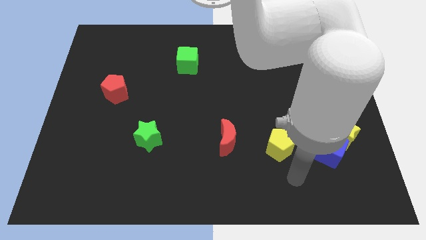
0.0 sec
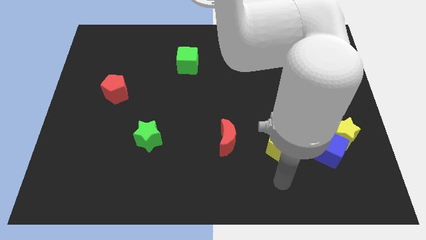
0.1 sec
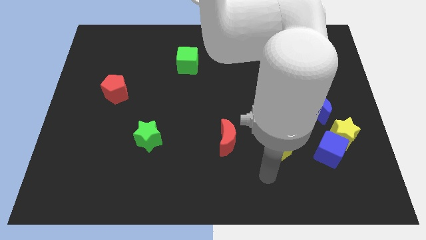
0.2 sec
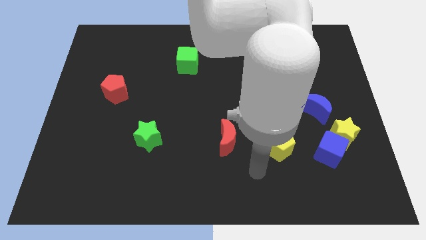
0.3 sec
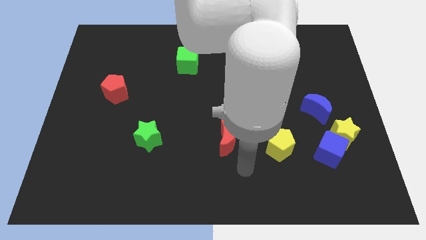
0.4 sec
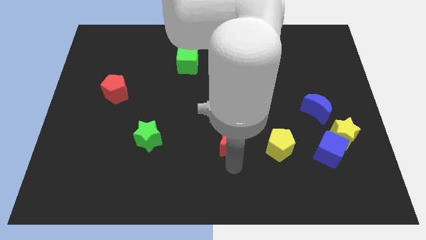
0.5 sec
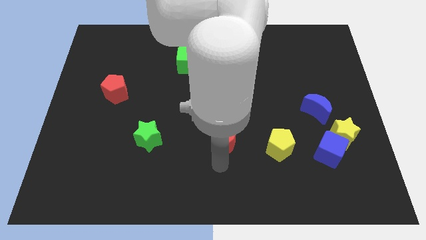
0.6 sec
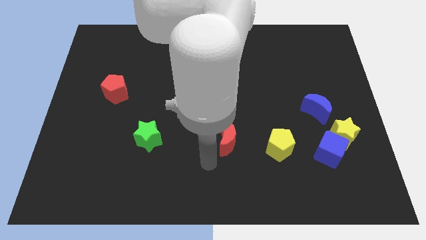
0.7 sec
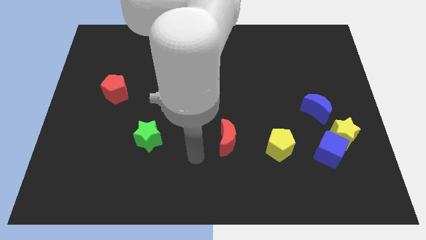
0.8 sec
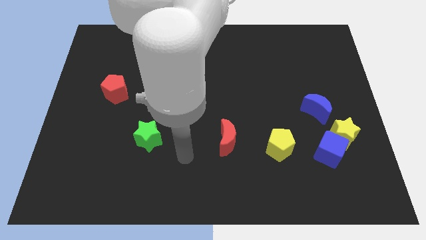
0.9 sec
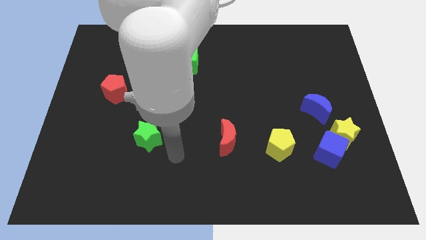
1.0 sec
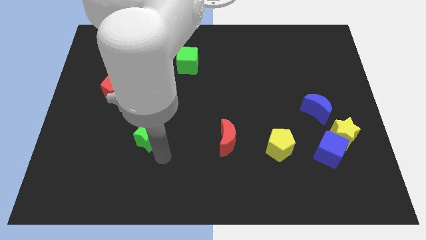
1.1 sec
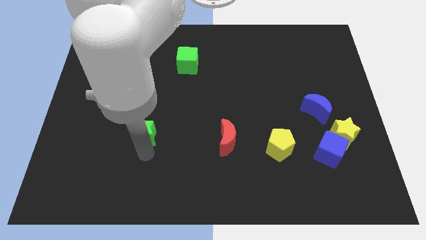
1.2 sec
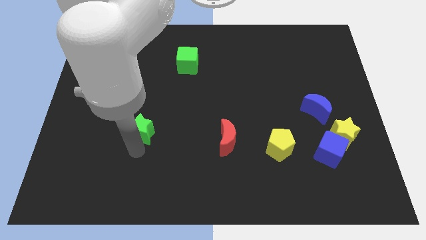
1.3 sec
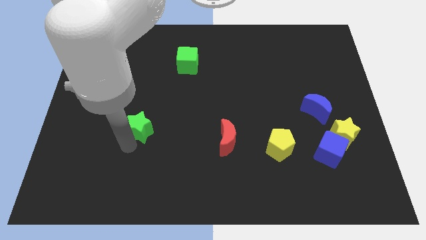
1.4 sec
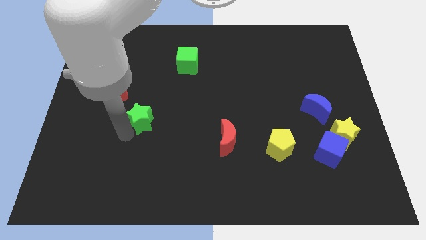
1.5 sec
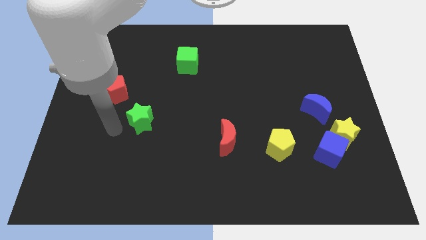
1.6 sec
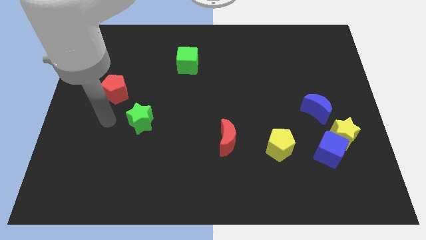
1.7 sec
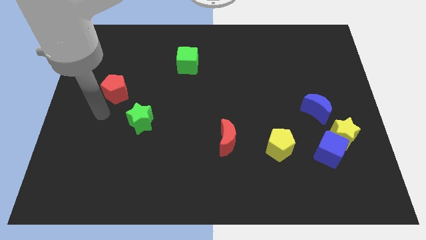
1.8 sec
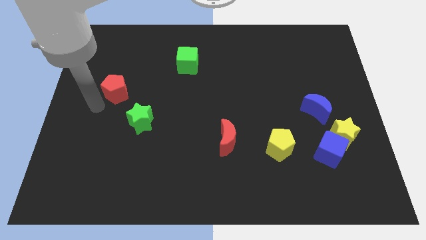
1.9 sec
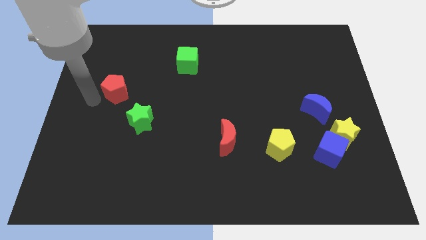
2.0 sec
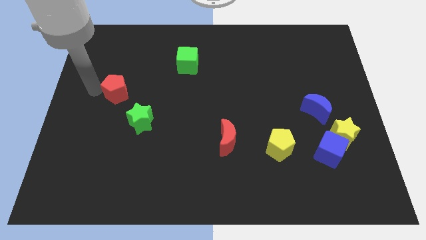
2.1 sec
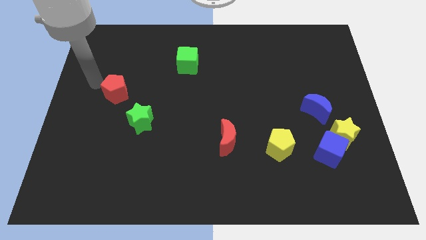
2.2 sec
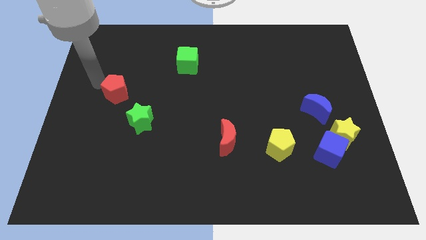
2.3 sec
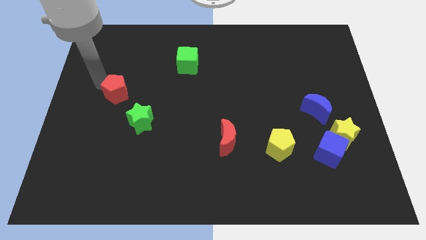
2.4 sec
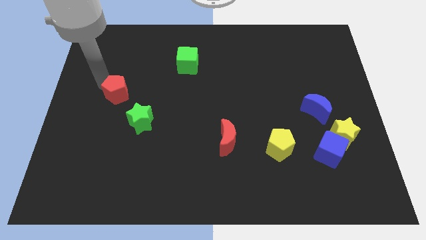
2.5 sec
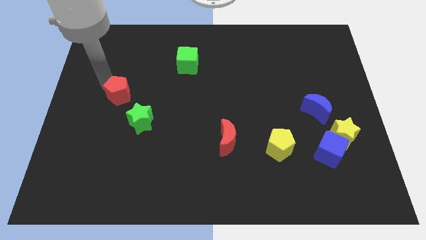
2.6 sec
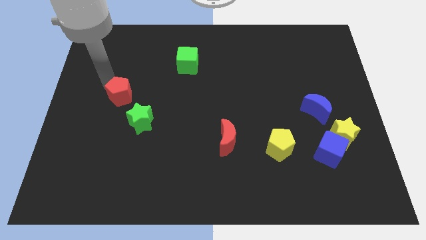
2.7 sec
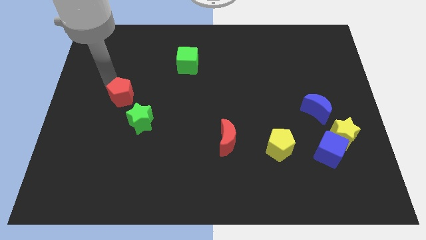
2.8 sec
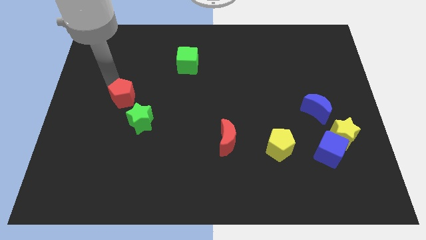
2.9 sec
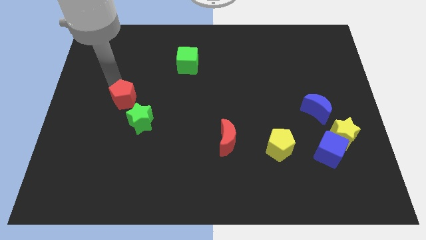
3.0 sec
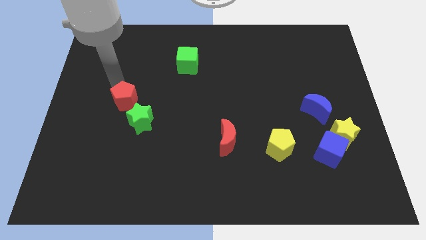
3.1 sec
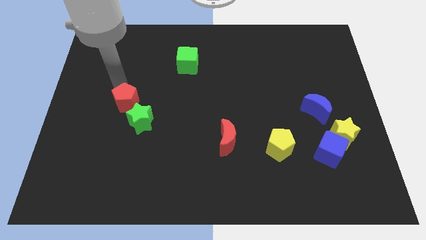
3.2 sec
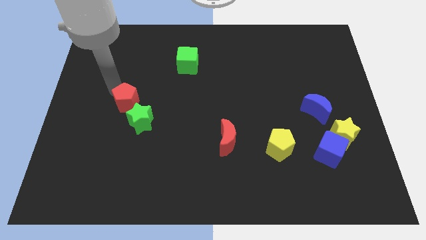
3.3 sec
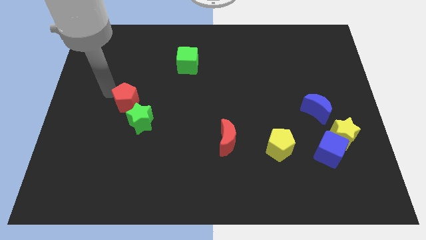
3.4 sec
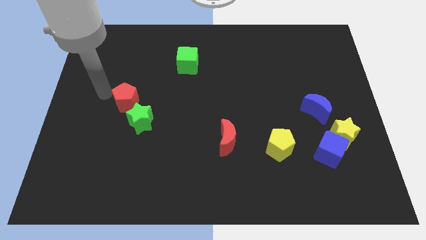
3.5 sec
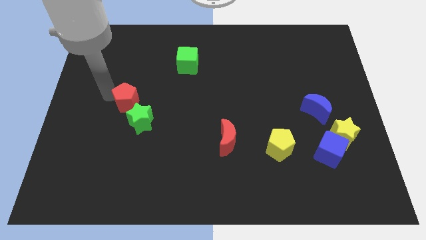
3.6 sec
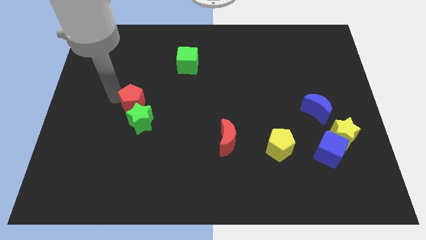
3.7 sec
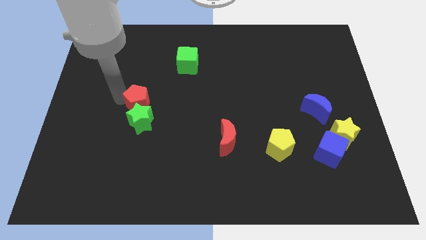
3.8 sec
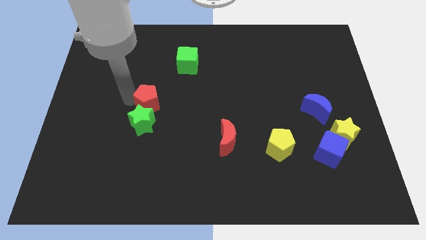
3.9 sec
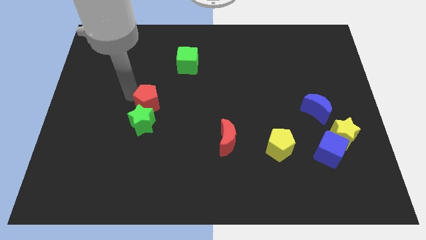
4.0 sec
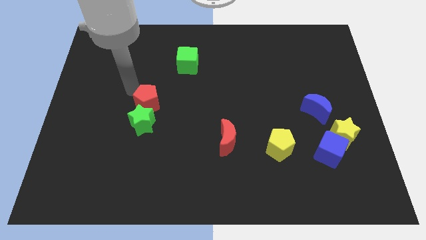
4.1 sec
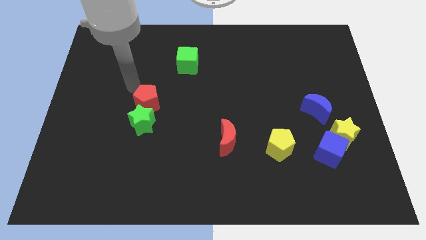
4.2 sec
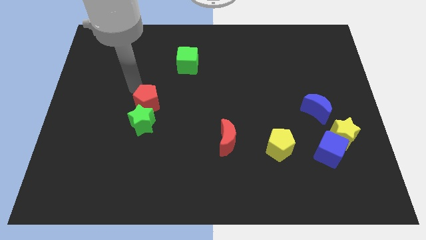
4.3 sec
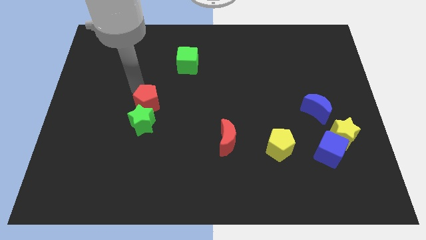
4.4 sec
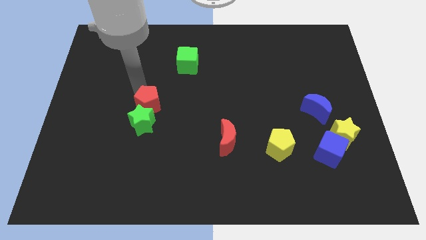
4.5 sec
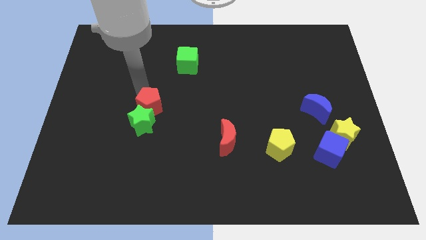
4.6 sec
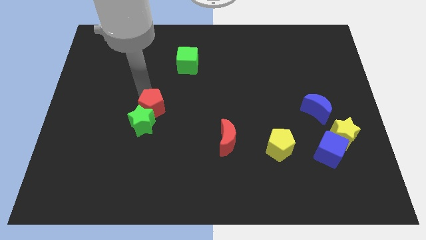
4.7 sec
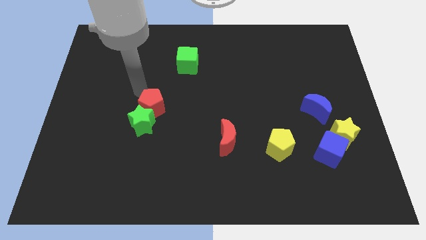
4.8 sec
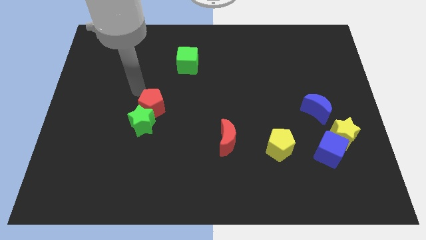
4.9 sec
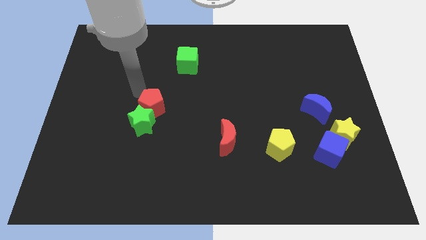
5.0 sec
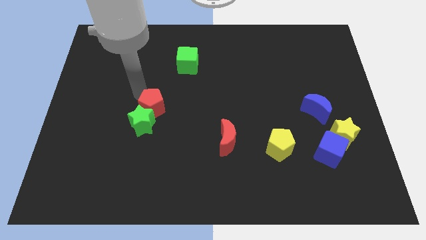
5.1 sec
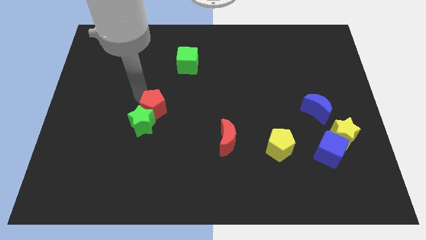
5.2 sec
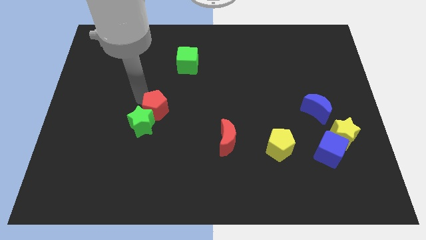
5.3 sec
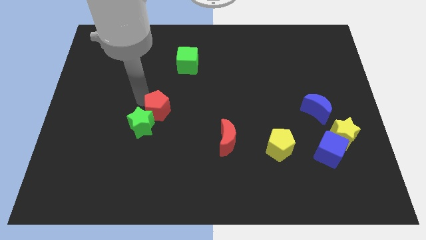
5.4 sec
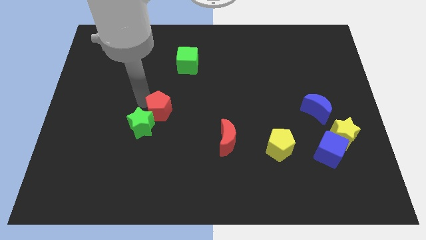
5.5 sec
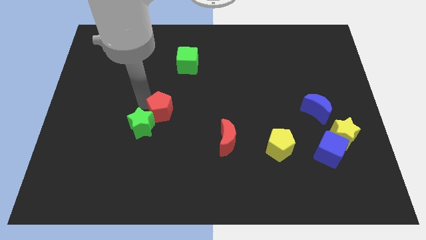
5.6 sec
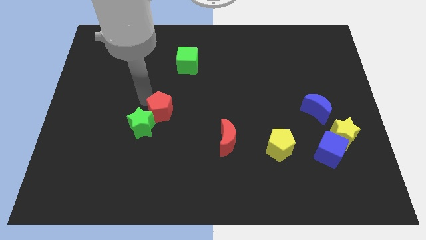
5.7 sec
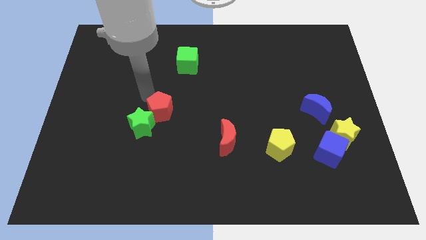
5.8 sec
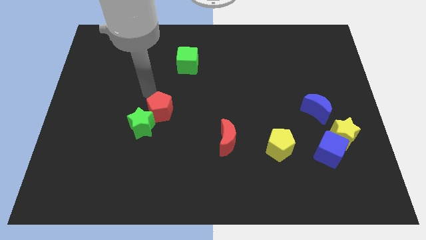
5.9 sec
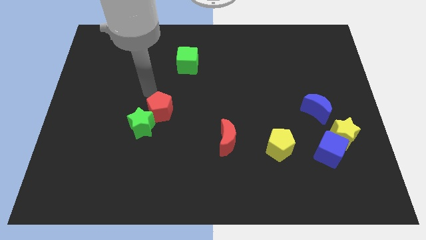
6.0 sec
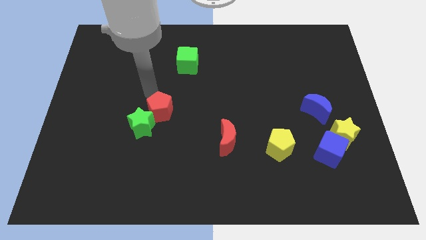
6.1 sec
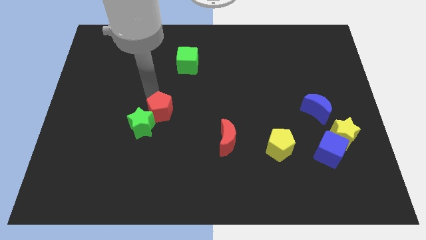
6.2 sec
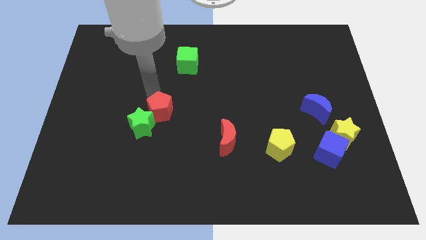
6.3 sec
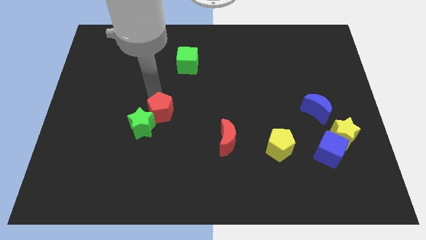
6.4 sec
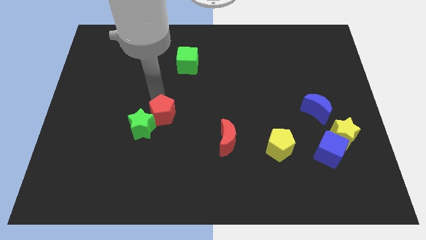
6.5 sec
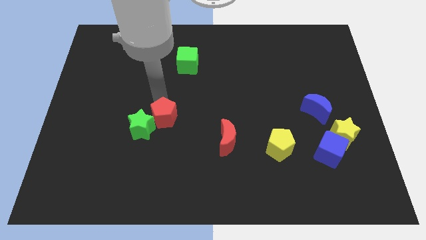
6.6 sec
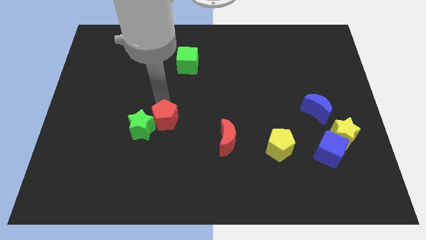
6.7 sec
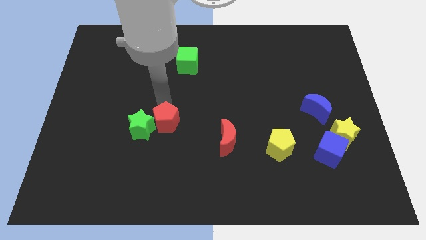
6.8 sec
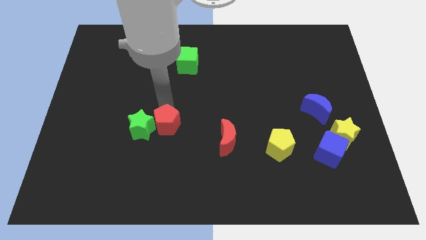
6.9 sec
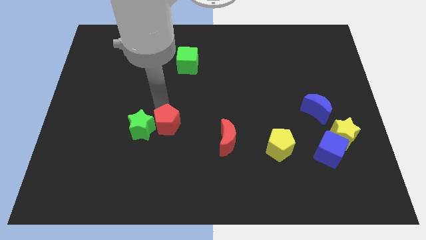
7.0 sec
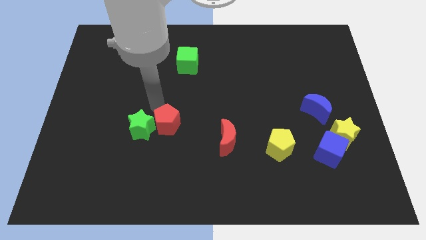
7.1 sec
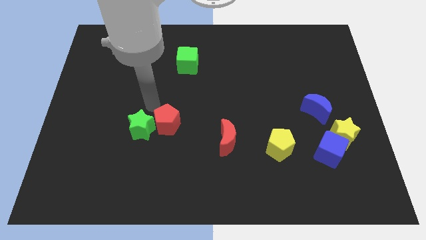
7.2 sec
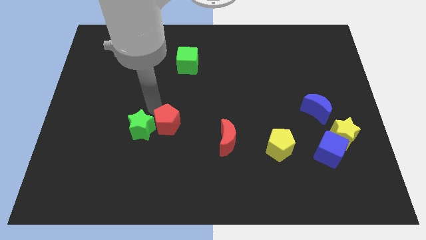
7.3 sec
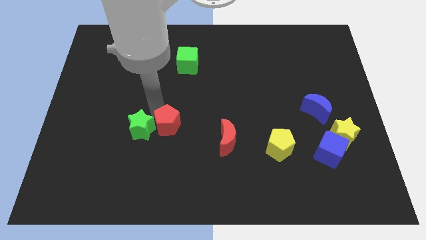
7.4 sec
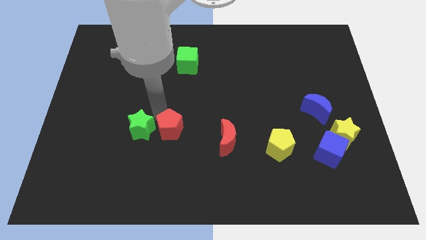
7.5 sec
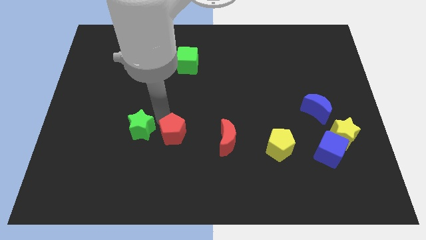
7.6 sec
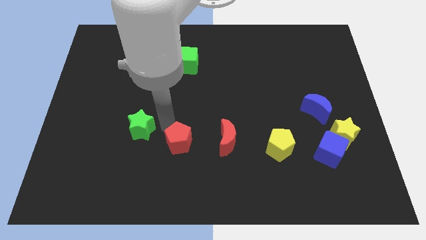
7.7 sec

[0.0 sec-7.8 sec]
push the red pentagon diagonally down and to the right

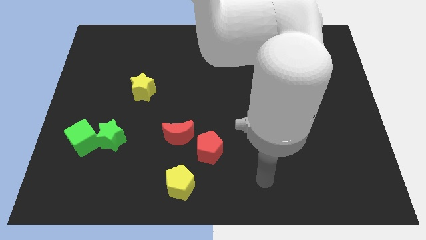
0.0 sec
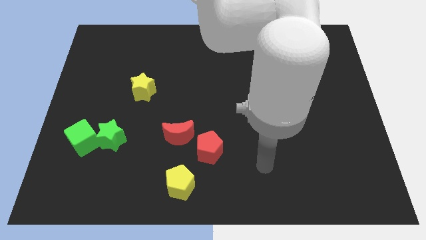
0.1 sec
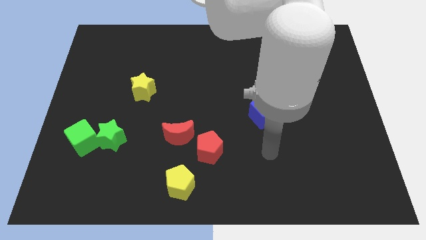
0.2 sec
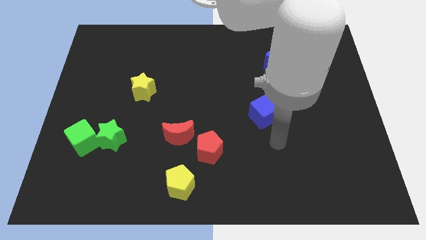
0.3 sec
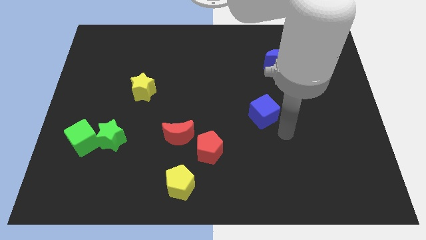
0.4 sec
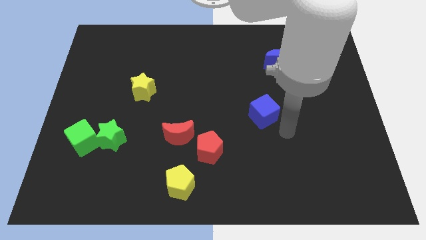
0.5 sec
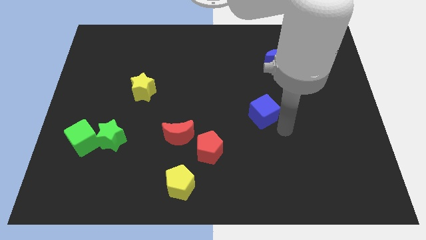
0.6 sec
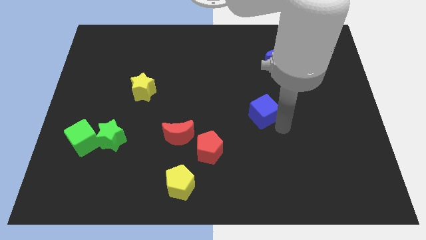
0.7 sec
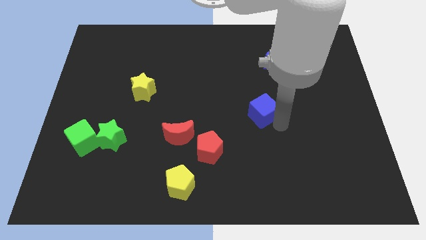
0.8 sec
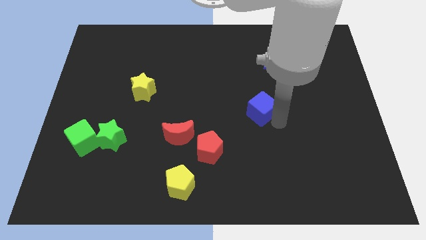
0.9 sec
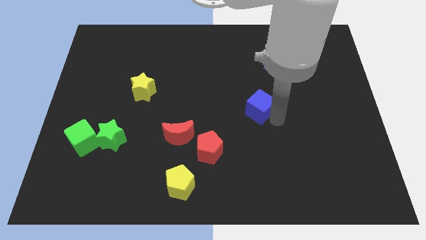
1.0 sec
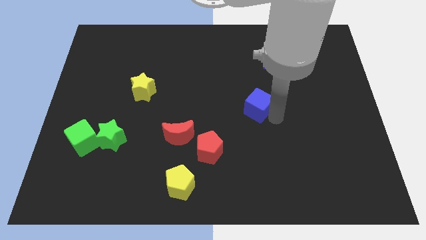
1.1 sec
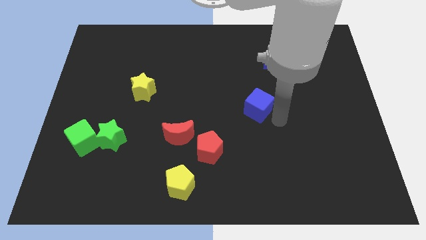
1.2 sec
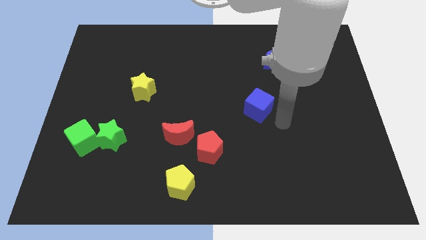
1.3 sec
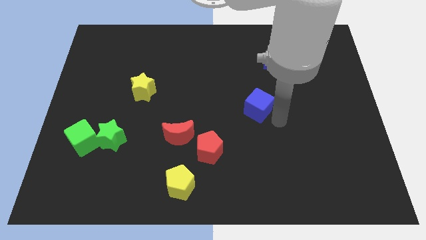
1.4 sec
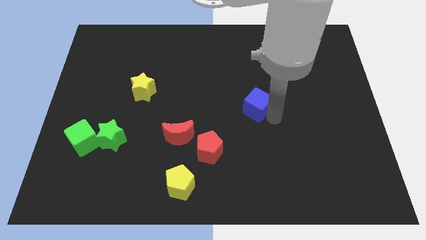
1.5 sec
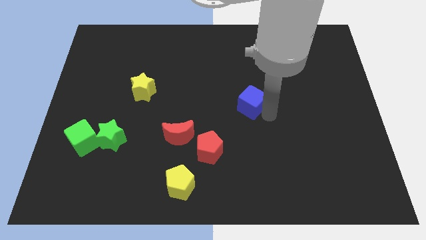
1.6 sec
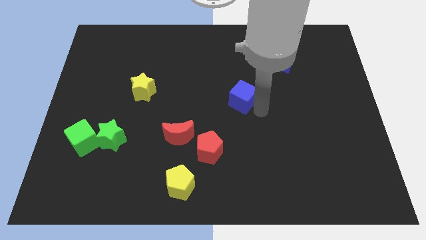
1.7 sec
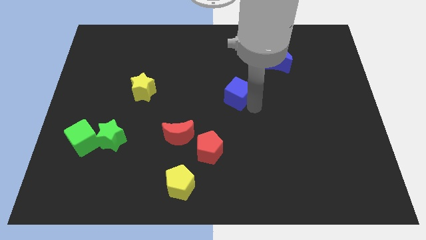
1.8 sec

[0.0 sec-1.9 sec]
slightly move the blue cube up and then left
